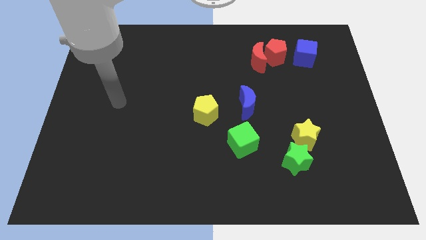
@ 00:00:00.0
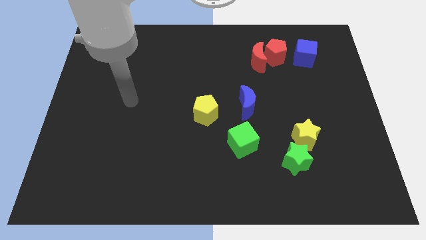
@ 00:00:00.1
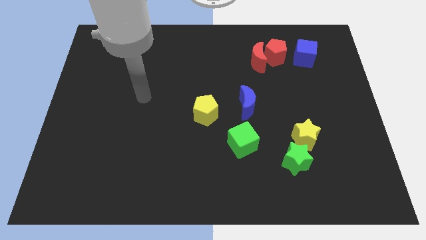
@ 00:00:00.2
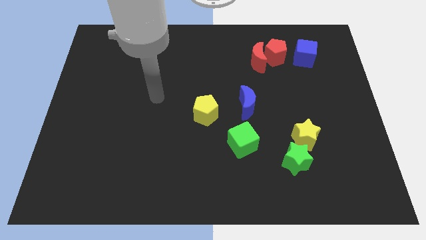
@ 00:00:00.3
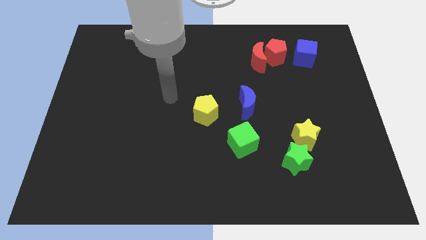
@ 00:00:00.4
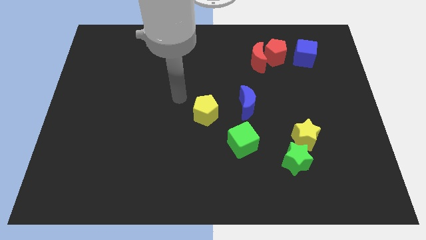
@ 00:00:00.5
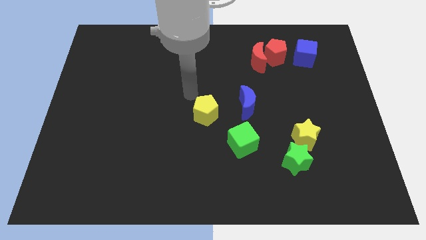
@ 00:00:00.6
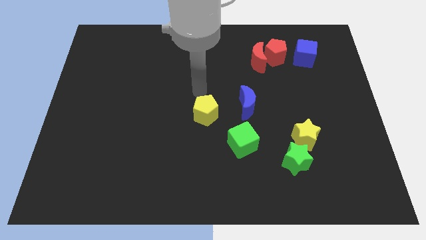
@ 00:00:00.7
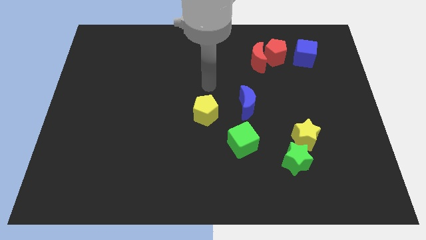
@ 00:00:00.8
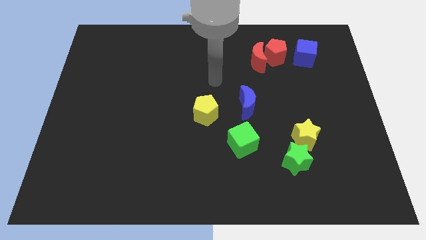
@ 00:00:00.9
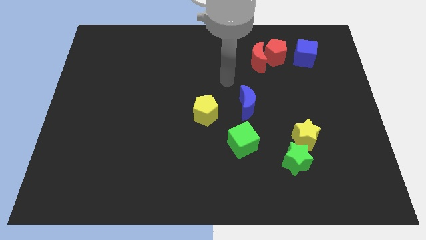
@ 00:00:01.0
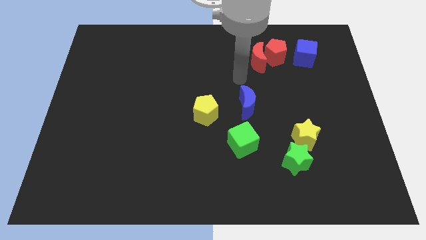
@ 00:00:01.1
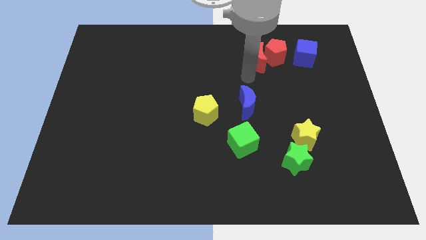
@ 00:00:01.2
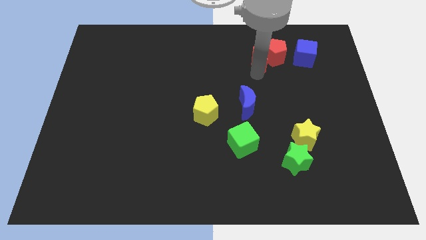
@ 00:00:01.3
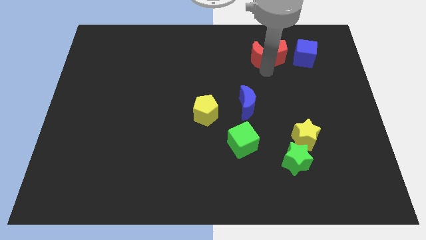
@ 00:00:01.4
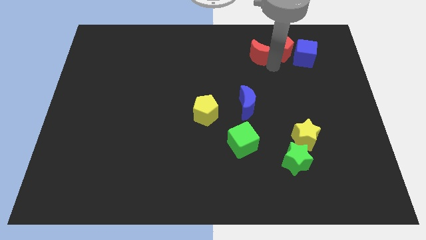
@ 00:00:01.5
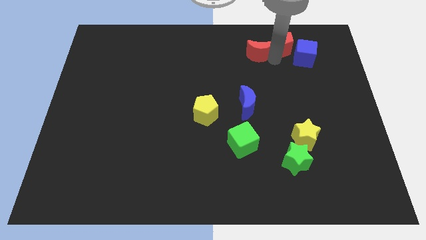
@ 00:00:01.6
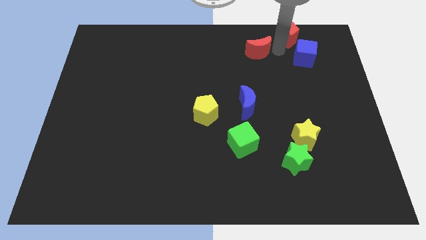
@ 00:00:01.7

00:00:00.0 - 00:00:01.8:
separate the red moon from the red pentagon

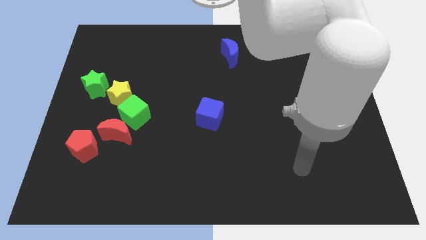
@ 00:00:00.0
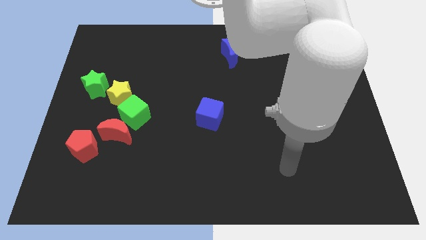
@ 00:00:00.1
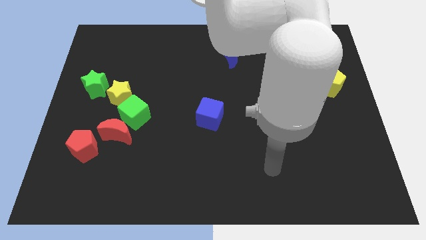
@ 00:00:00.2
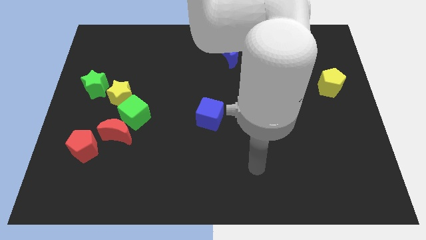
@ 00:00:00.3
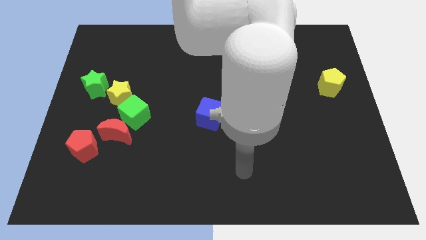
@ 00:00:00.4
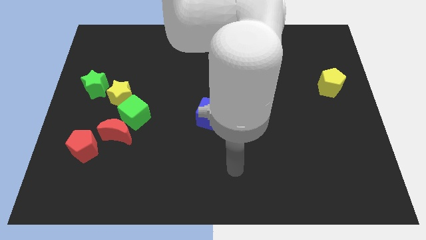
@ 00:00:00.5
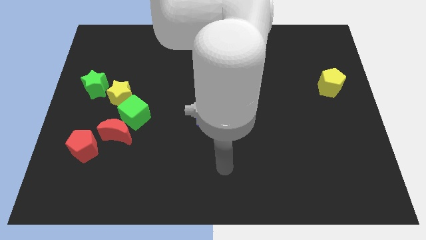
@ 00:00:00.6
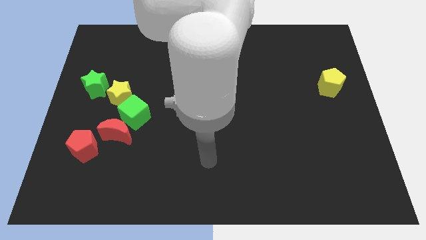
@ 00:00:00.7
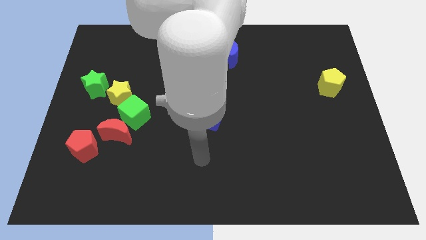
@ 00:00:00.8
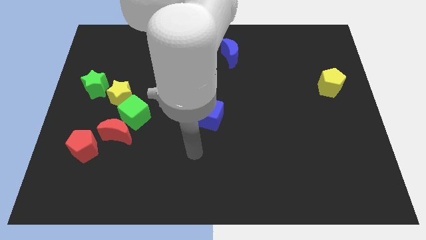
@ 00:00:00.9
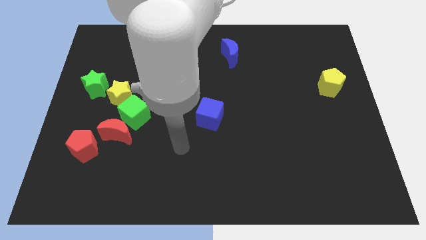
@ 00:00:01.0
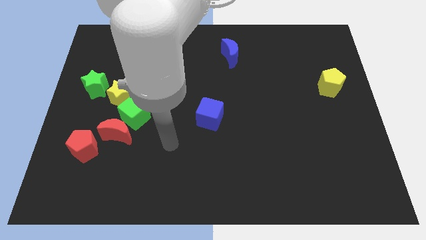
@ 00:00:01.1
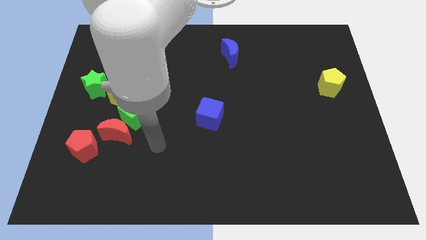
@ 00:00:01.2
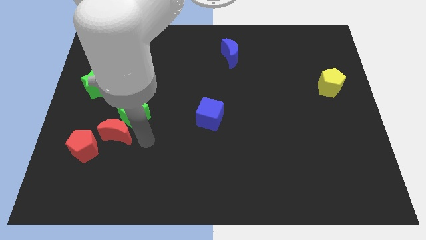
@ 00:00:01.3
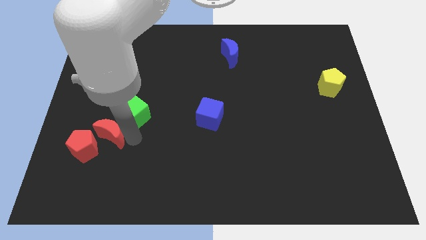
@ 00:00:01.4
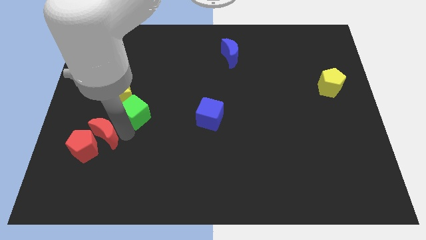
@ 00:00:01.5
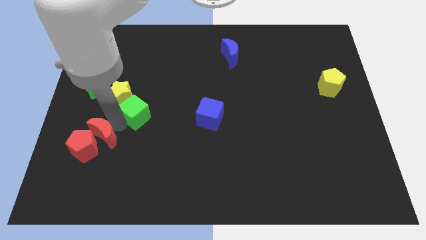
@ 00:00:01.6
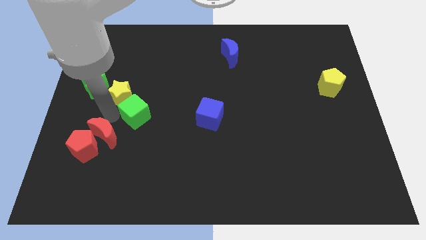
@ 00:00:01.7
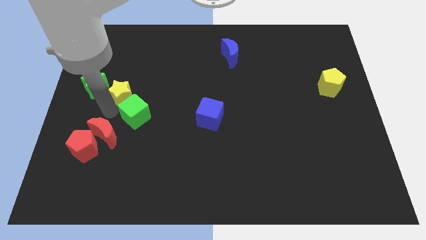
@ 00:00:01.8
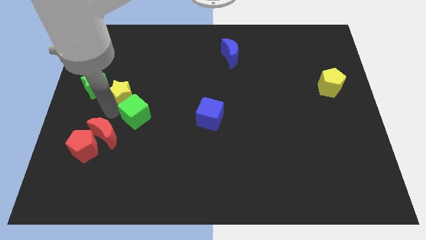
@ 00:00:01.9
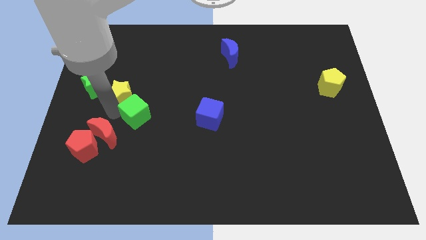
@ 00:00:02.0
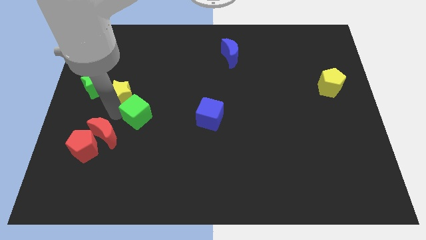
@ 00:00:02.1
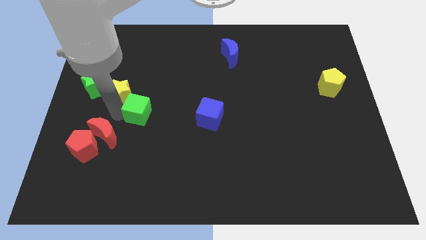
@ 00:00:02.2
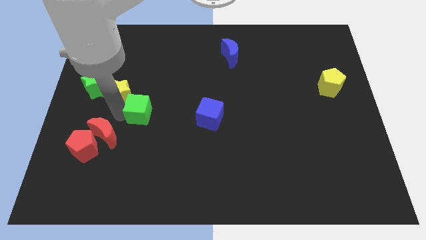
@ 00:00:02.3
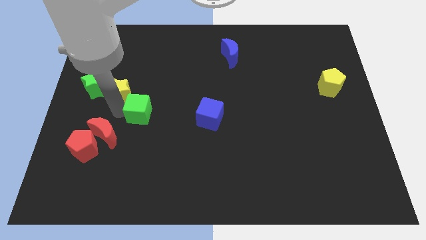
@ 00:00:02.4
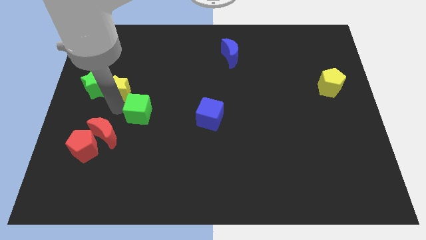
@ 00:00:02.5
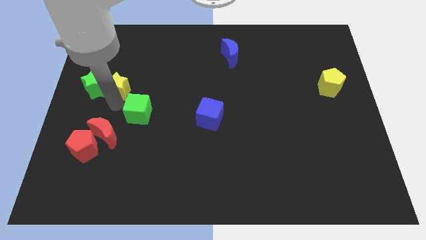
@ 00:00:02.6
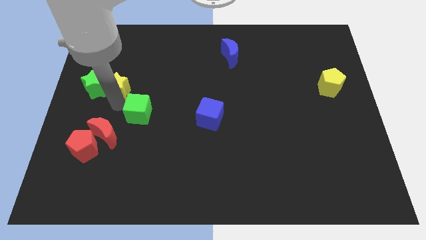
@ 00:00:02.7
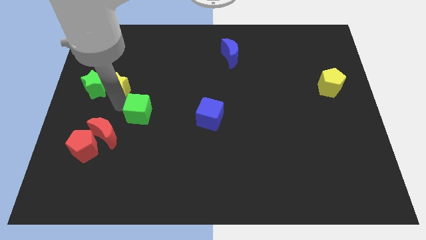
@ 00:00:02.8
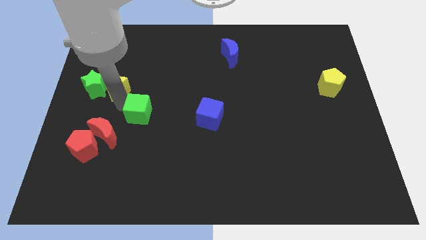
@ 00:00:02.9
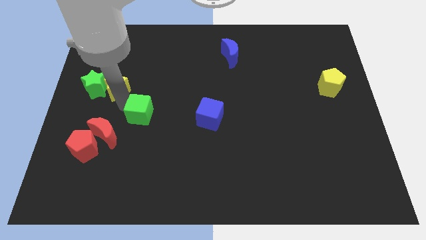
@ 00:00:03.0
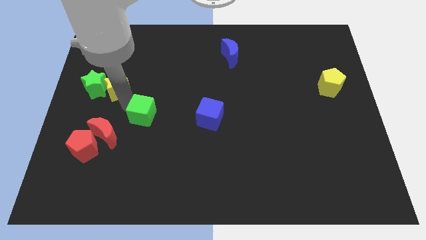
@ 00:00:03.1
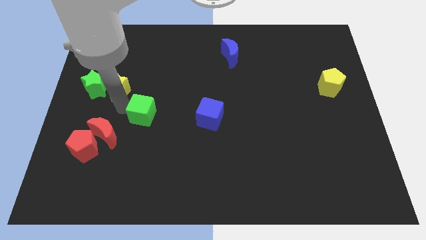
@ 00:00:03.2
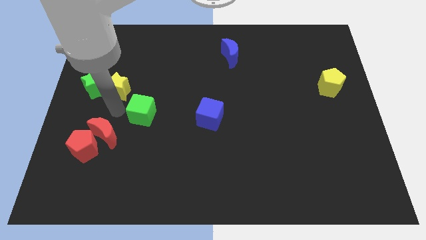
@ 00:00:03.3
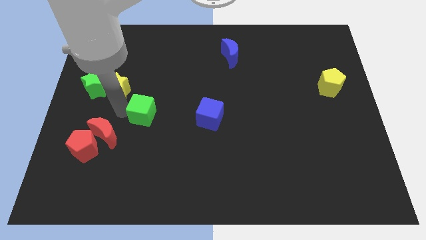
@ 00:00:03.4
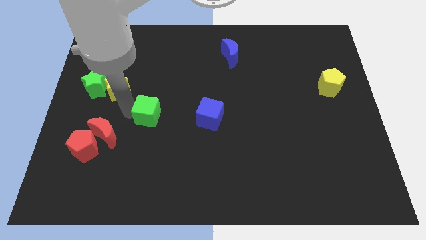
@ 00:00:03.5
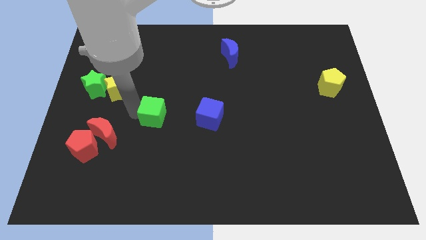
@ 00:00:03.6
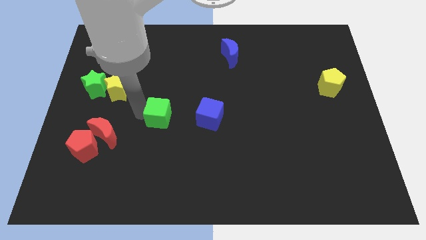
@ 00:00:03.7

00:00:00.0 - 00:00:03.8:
pull the green cube apart from the red moon and yellow star

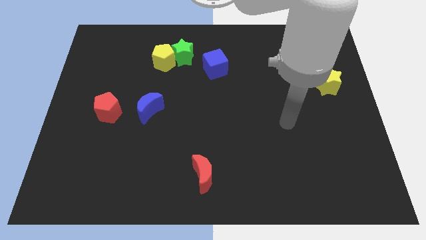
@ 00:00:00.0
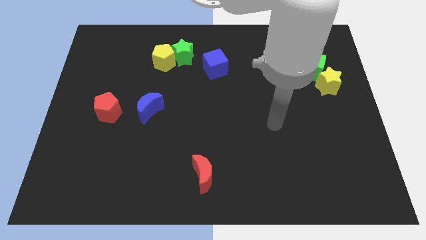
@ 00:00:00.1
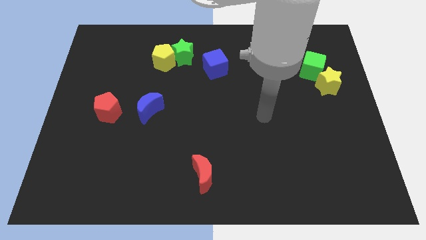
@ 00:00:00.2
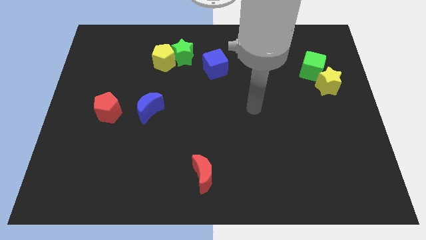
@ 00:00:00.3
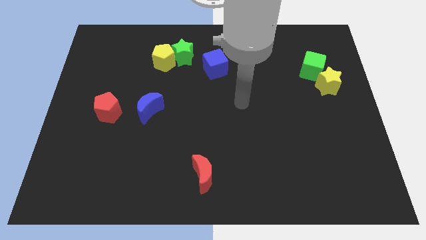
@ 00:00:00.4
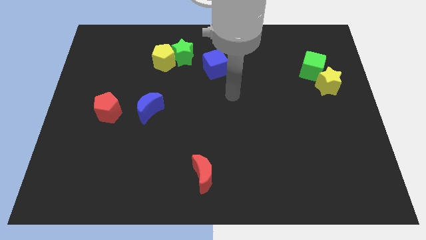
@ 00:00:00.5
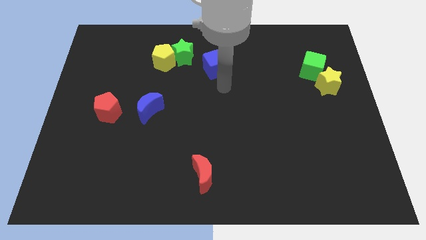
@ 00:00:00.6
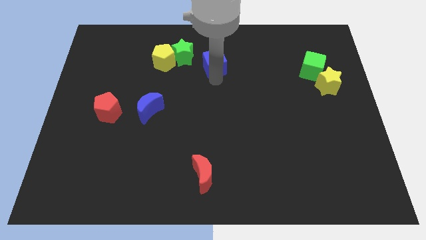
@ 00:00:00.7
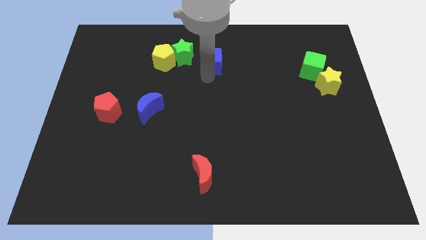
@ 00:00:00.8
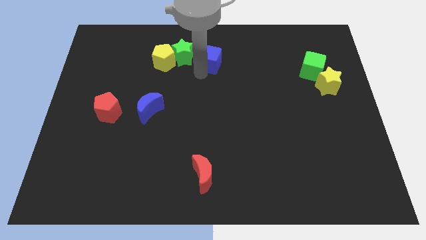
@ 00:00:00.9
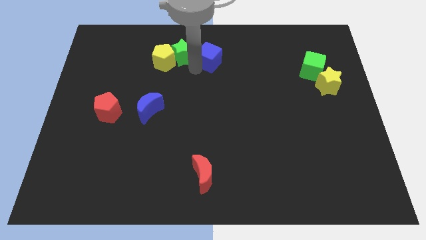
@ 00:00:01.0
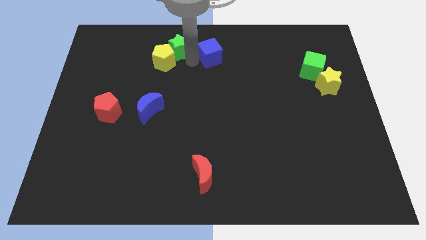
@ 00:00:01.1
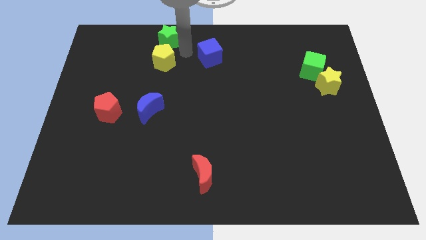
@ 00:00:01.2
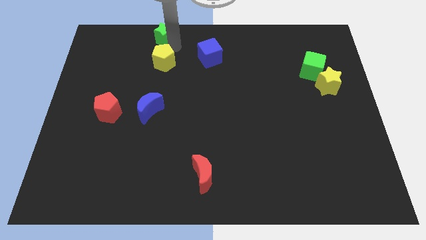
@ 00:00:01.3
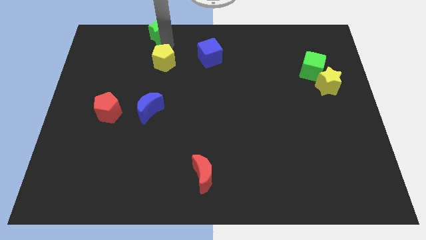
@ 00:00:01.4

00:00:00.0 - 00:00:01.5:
move the yellow pentagon away from the green star

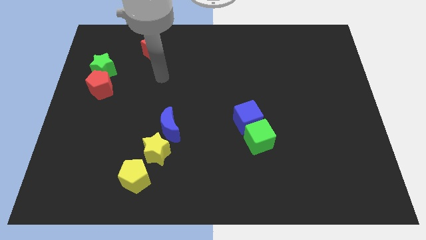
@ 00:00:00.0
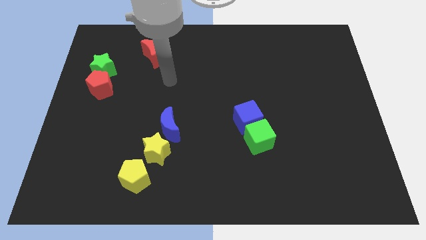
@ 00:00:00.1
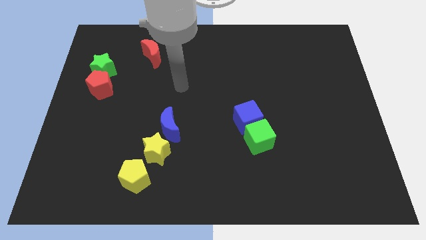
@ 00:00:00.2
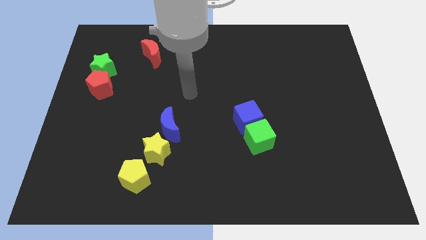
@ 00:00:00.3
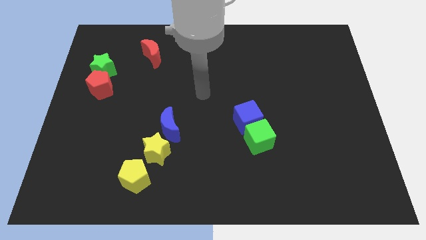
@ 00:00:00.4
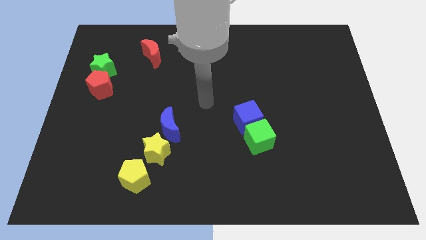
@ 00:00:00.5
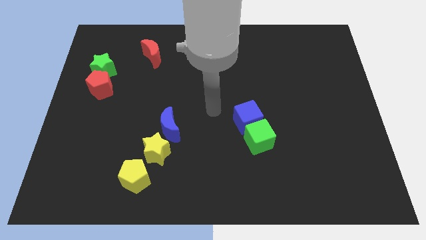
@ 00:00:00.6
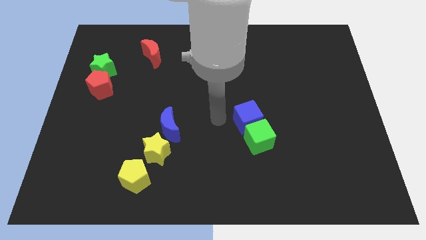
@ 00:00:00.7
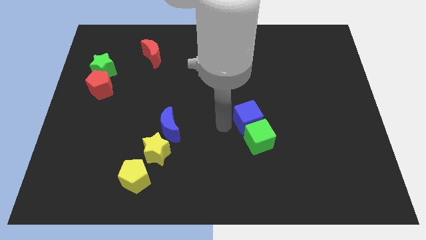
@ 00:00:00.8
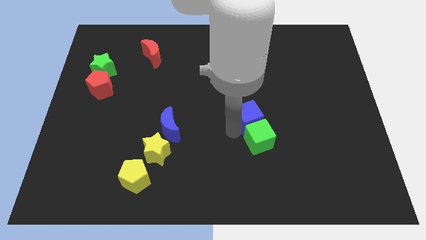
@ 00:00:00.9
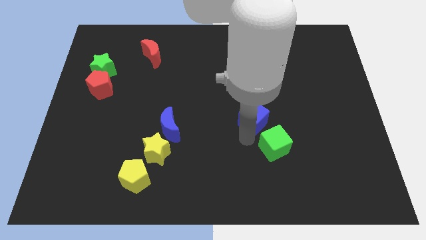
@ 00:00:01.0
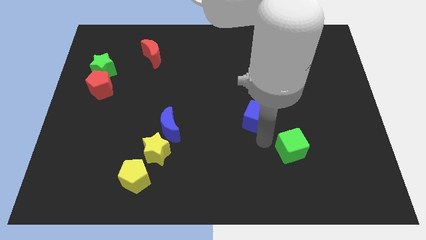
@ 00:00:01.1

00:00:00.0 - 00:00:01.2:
separate the blue cube from the green cube

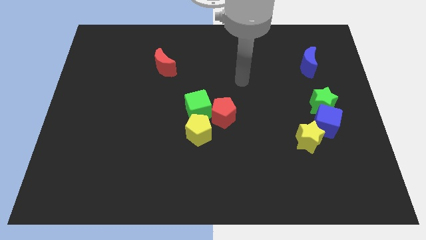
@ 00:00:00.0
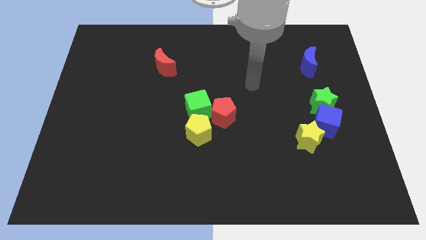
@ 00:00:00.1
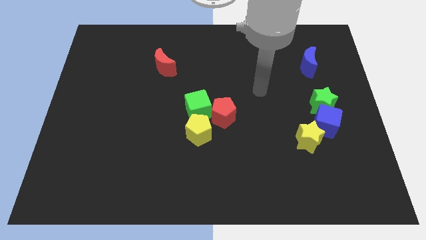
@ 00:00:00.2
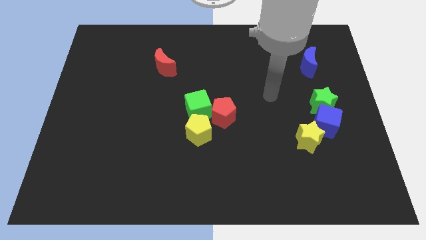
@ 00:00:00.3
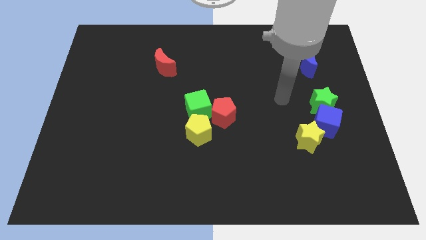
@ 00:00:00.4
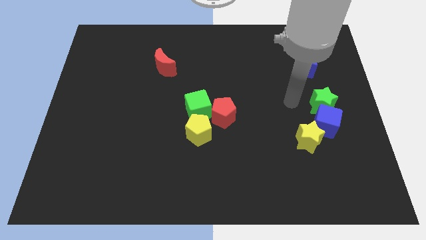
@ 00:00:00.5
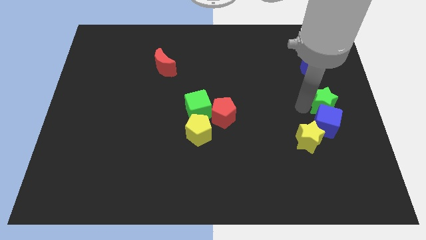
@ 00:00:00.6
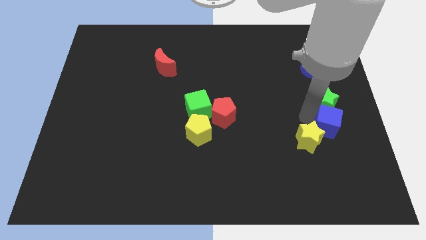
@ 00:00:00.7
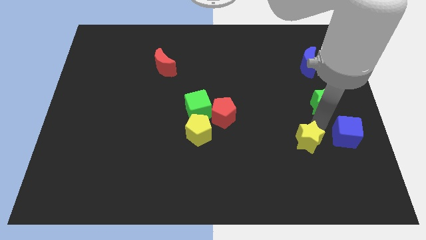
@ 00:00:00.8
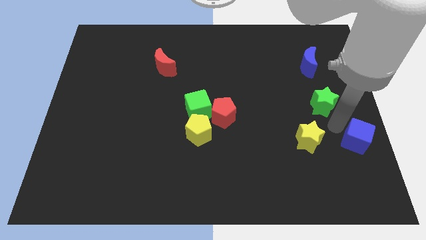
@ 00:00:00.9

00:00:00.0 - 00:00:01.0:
separate the green star from the blue cube
